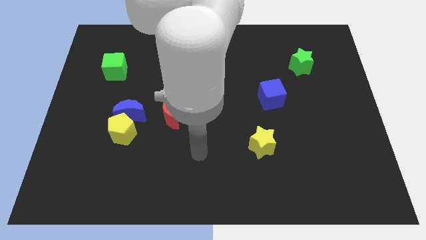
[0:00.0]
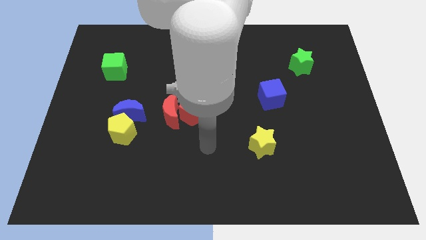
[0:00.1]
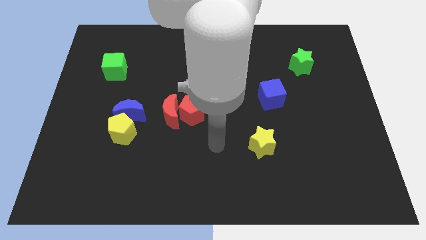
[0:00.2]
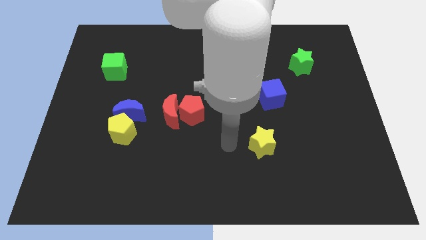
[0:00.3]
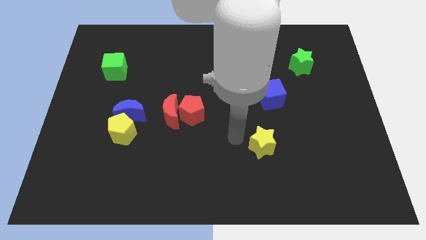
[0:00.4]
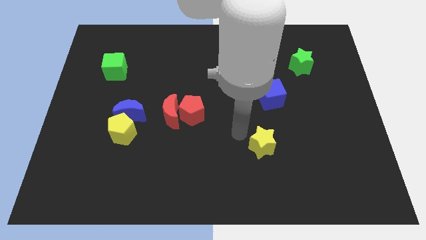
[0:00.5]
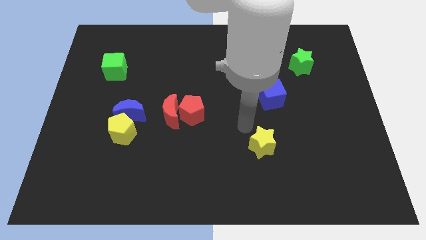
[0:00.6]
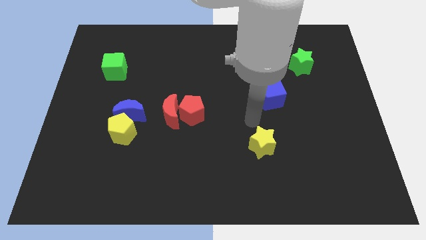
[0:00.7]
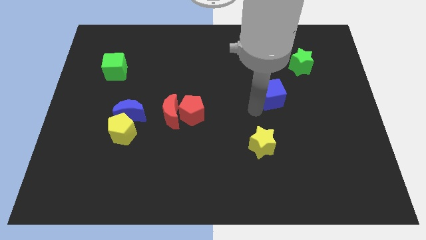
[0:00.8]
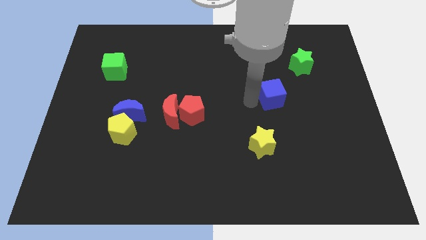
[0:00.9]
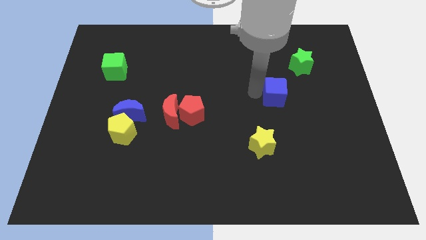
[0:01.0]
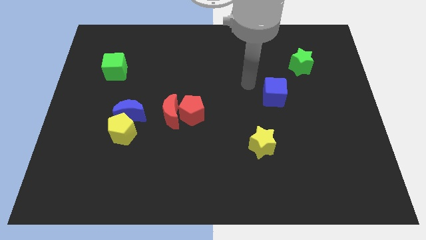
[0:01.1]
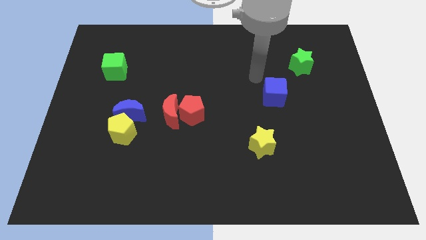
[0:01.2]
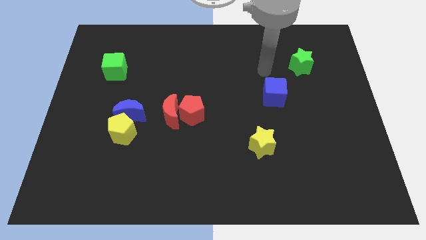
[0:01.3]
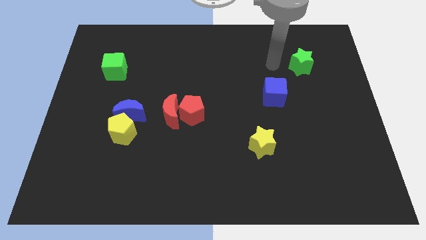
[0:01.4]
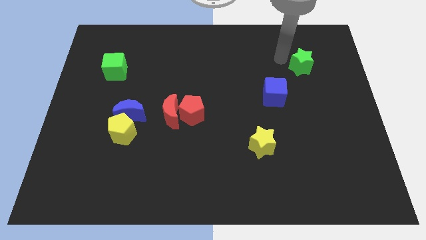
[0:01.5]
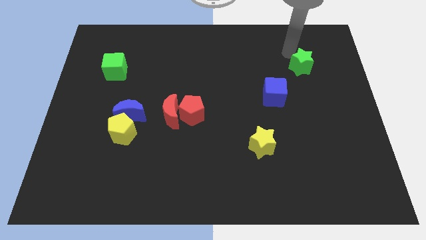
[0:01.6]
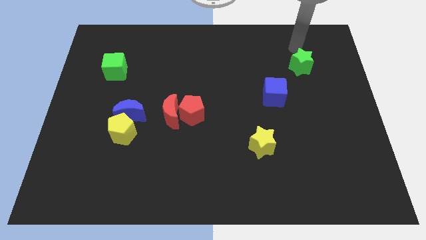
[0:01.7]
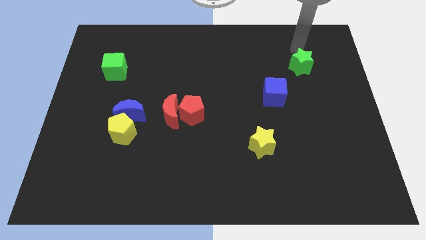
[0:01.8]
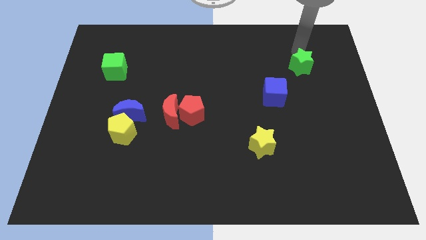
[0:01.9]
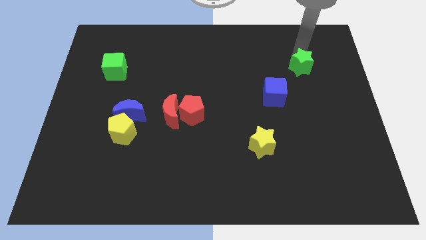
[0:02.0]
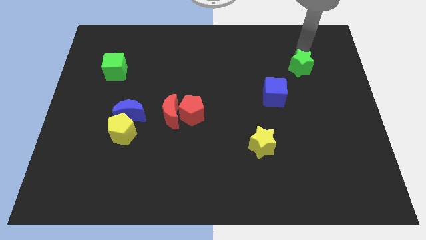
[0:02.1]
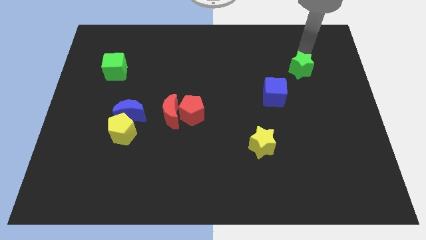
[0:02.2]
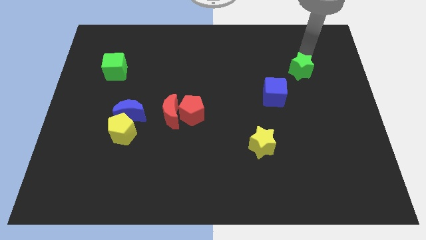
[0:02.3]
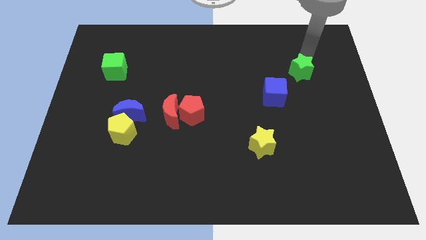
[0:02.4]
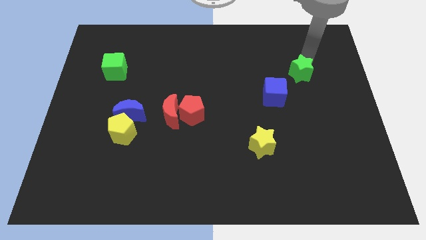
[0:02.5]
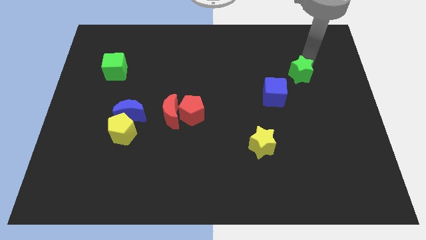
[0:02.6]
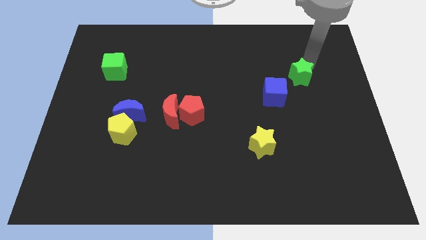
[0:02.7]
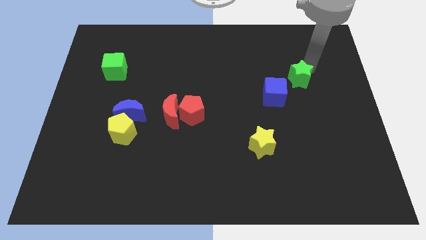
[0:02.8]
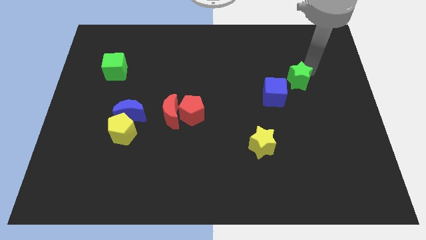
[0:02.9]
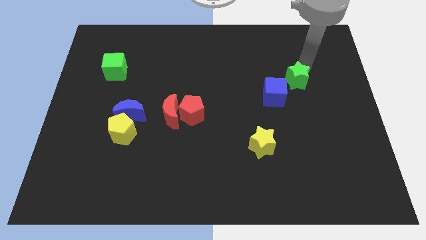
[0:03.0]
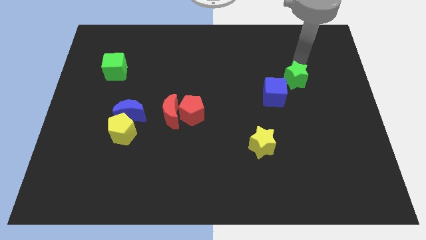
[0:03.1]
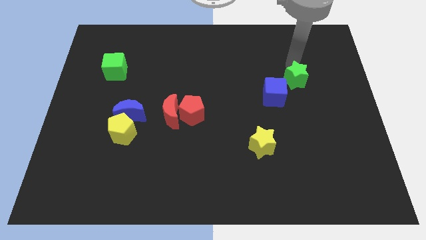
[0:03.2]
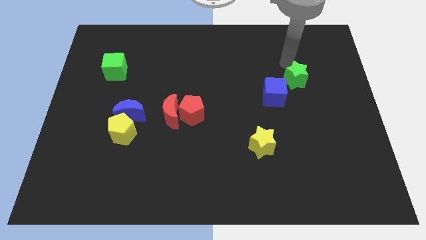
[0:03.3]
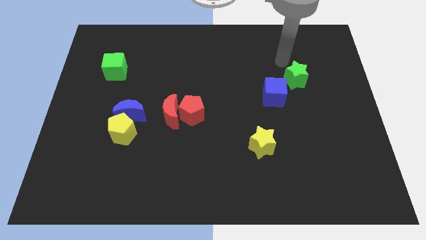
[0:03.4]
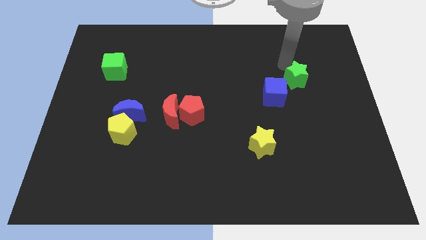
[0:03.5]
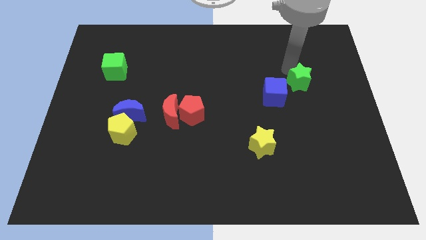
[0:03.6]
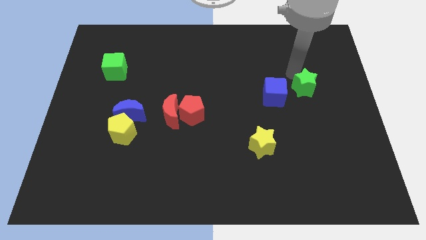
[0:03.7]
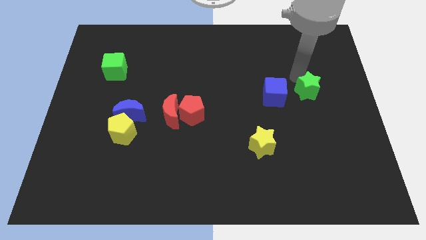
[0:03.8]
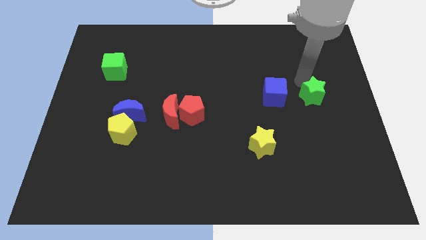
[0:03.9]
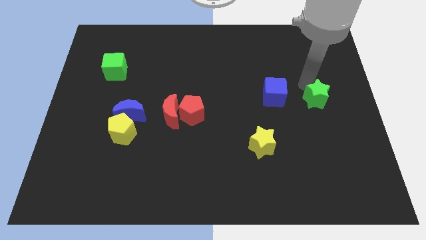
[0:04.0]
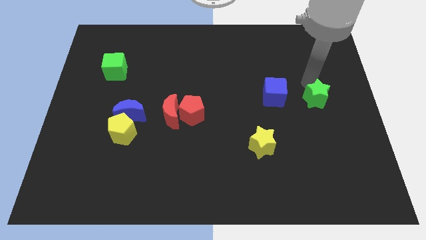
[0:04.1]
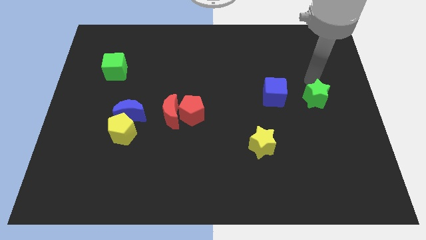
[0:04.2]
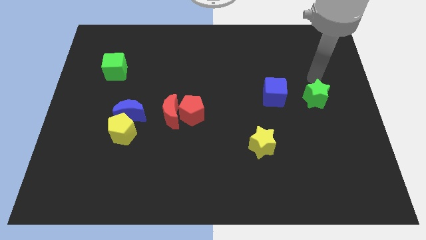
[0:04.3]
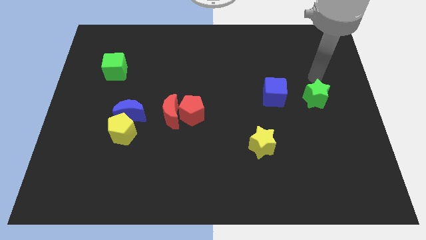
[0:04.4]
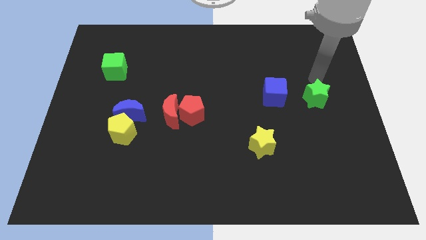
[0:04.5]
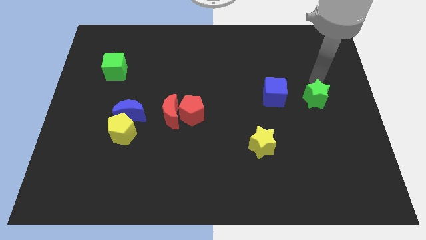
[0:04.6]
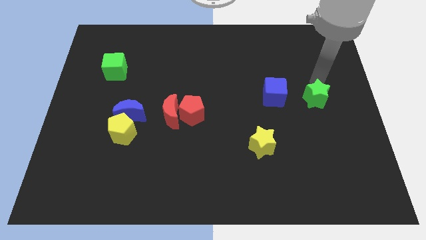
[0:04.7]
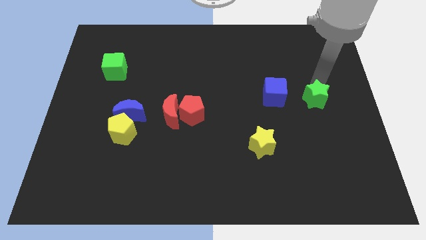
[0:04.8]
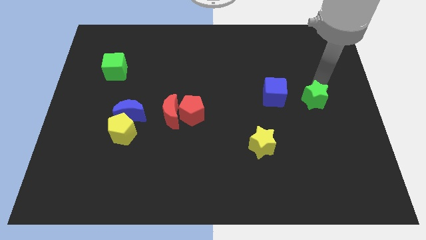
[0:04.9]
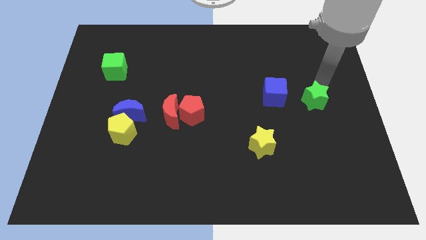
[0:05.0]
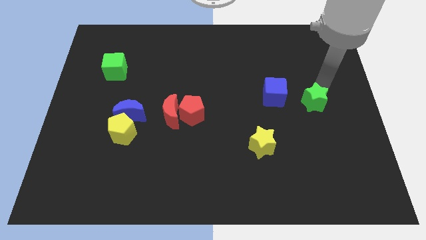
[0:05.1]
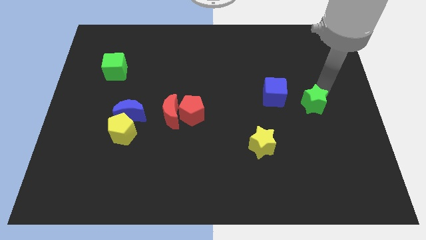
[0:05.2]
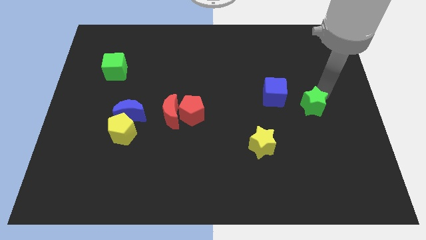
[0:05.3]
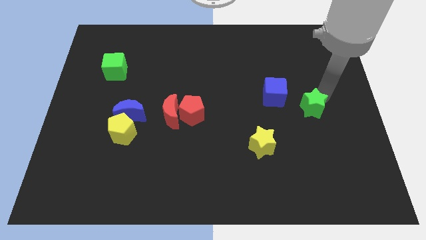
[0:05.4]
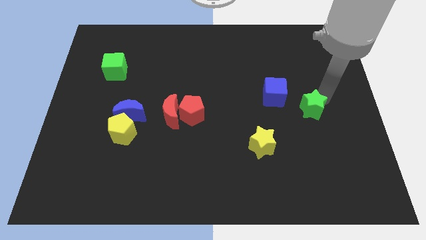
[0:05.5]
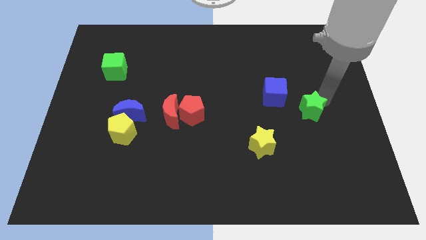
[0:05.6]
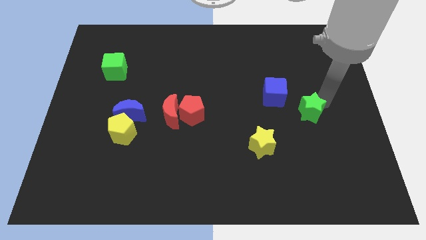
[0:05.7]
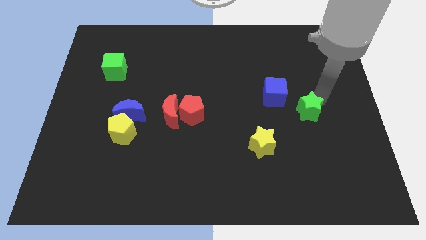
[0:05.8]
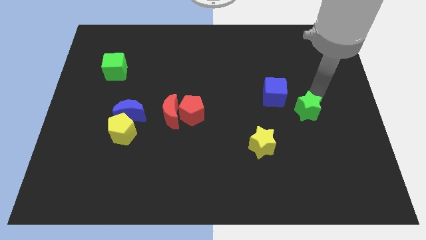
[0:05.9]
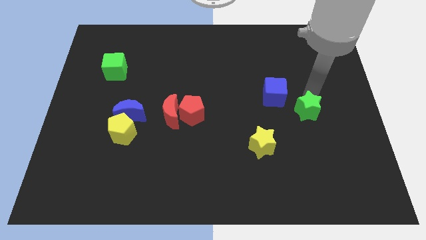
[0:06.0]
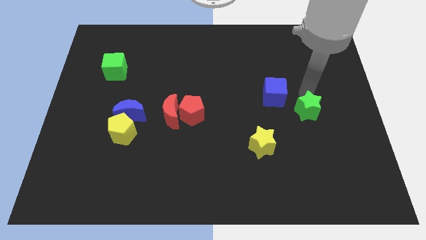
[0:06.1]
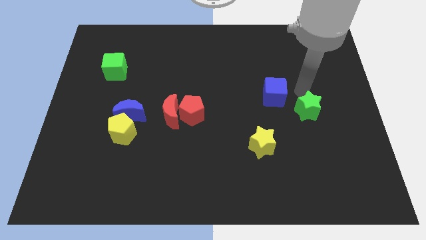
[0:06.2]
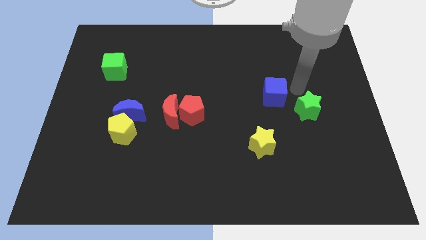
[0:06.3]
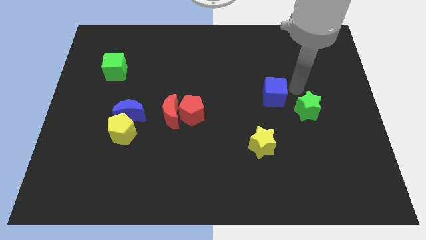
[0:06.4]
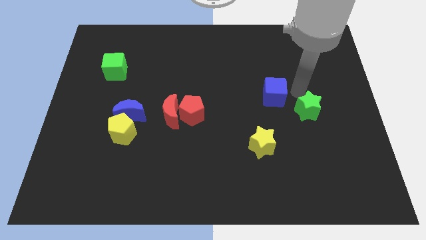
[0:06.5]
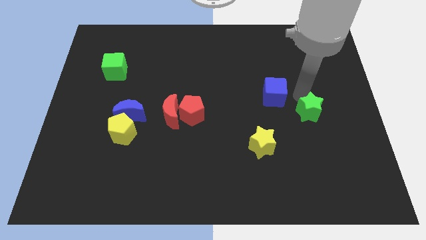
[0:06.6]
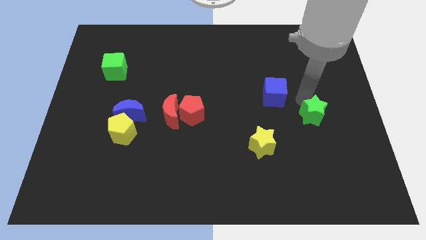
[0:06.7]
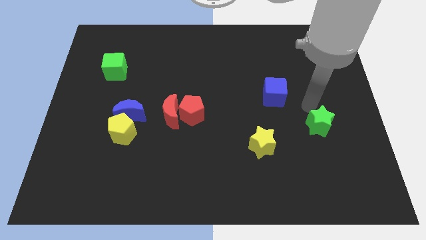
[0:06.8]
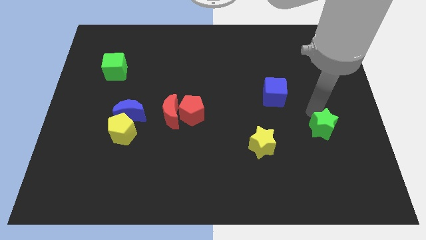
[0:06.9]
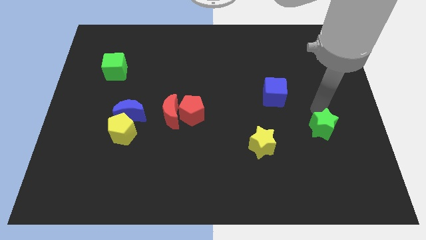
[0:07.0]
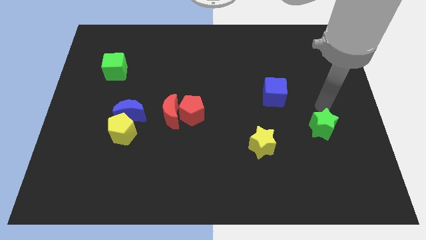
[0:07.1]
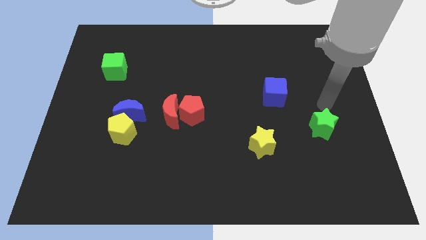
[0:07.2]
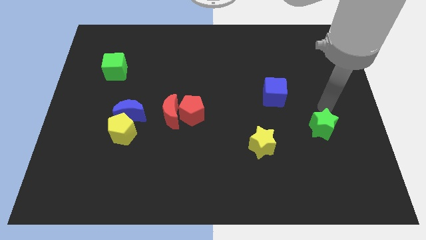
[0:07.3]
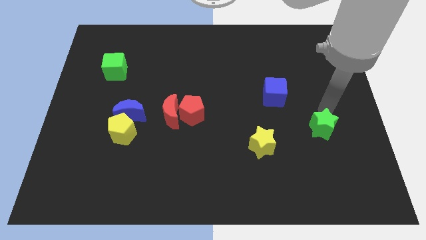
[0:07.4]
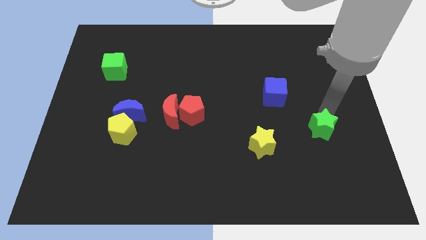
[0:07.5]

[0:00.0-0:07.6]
push the green star down

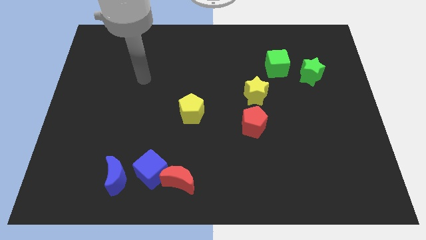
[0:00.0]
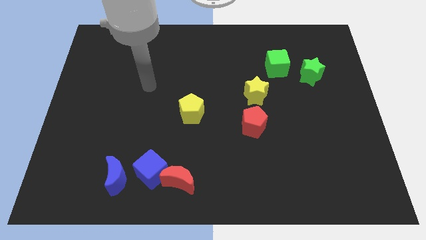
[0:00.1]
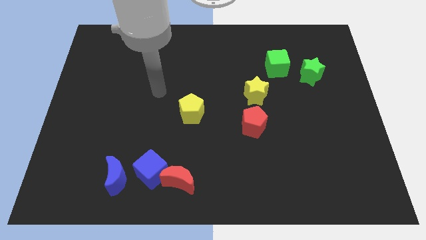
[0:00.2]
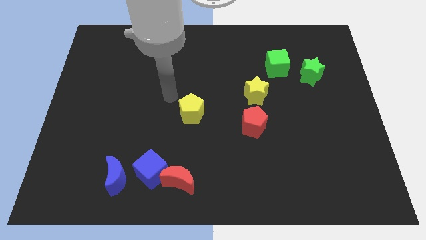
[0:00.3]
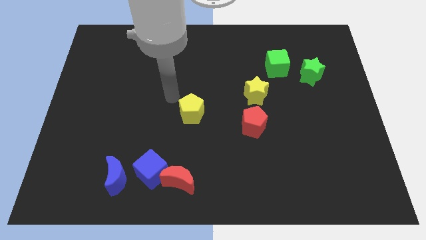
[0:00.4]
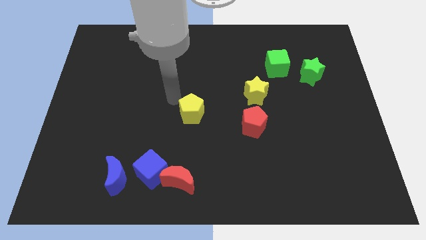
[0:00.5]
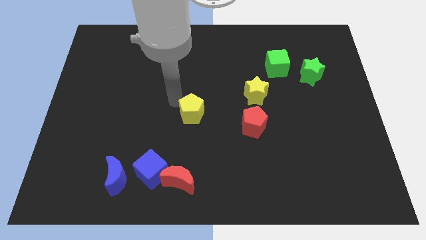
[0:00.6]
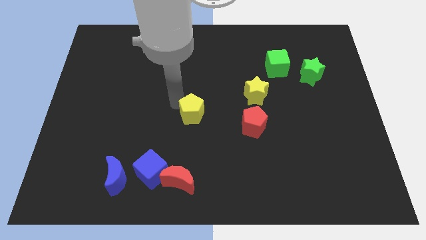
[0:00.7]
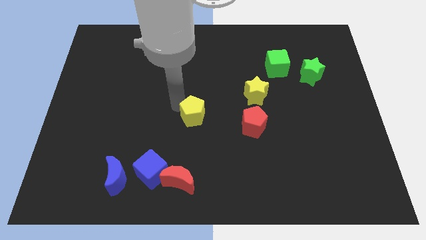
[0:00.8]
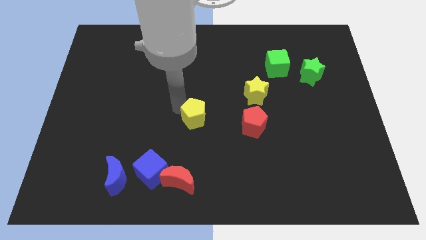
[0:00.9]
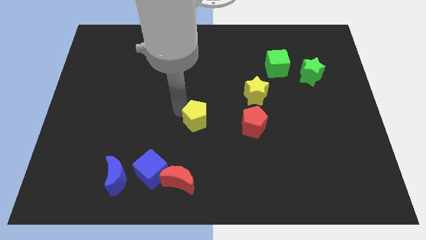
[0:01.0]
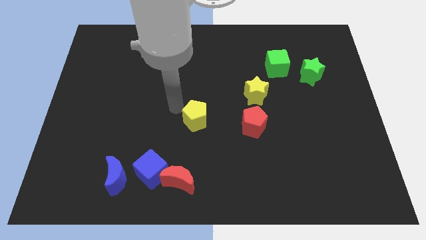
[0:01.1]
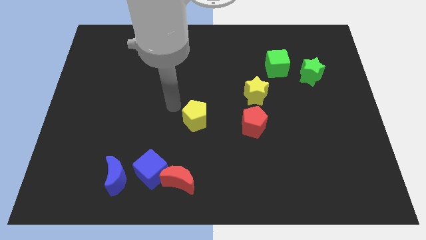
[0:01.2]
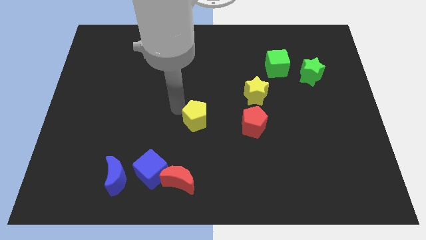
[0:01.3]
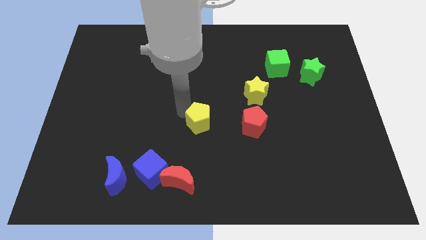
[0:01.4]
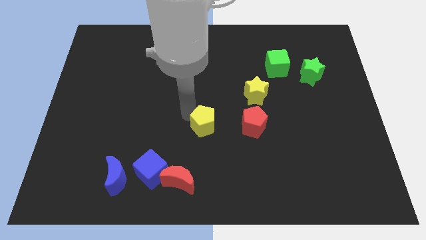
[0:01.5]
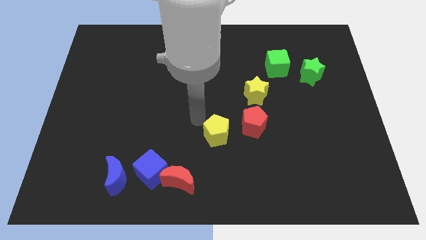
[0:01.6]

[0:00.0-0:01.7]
slightly slide the yellow pentagon downwards and right
